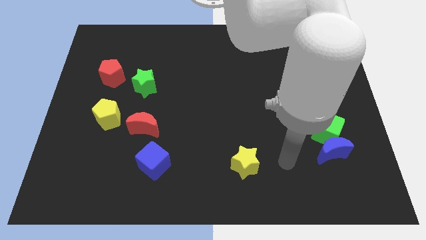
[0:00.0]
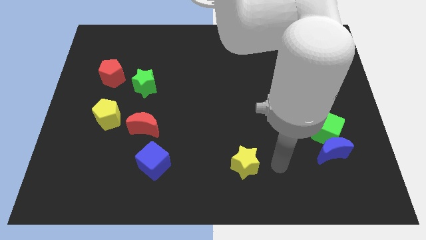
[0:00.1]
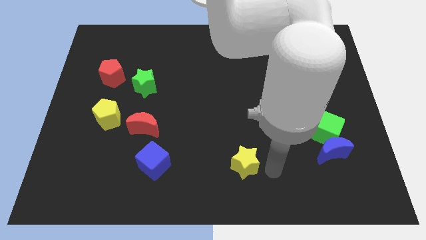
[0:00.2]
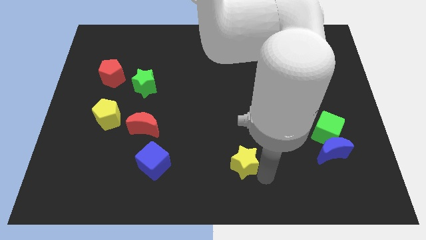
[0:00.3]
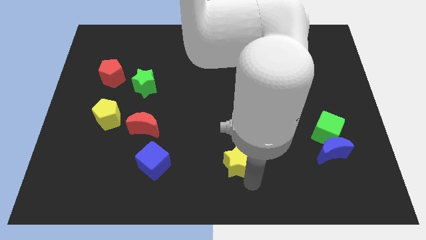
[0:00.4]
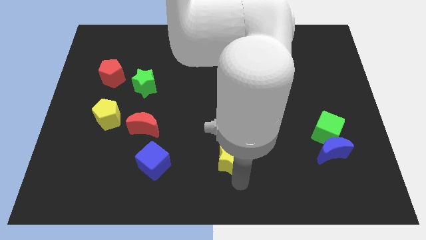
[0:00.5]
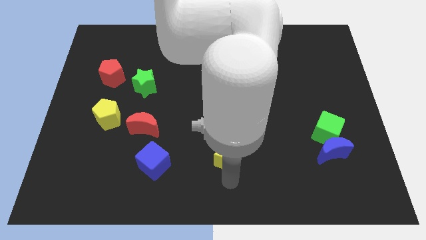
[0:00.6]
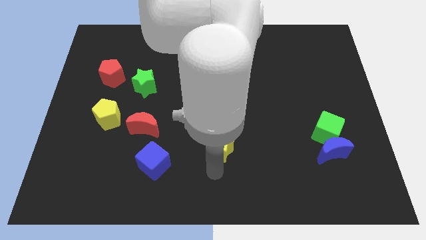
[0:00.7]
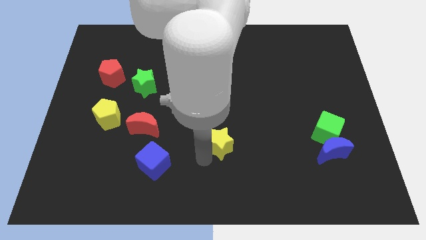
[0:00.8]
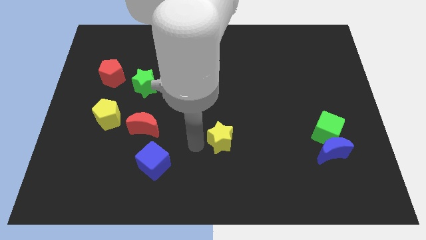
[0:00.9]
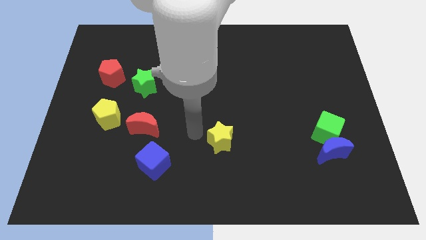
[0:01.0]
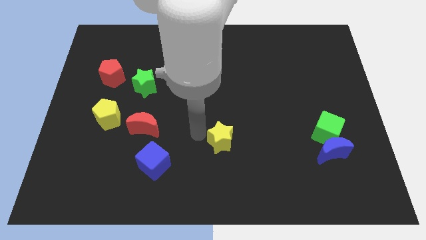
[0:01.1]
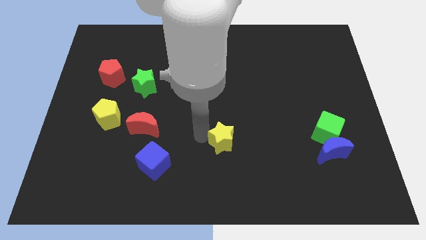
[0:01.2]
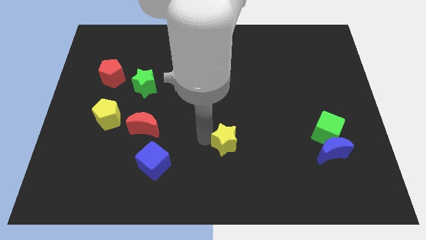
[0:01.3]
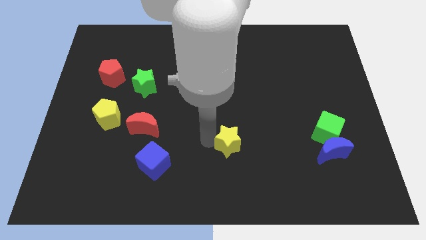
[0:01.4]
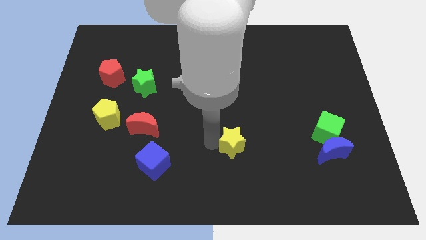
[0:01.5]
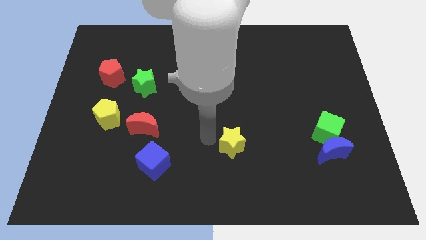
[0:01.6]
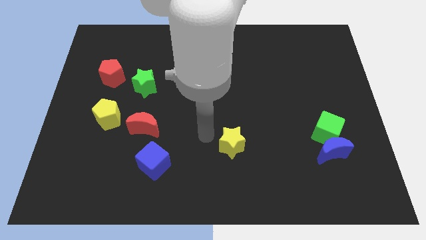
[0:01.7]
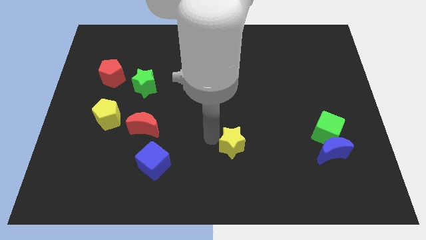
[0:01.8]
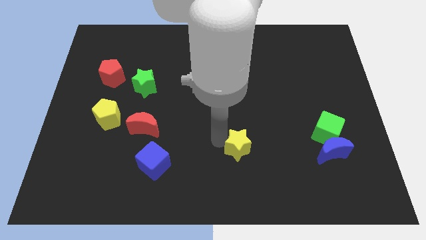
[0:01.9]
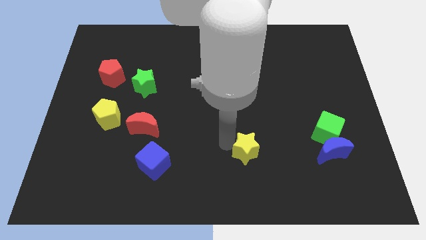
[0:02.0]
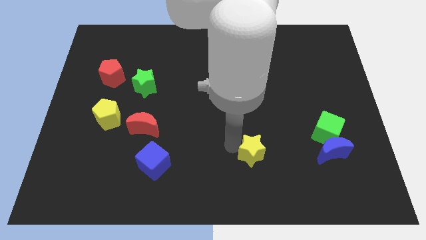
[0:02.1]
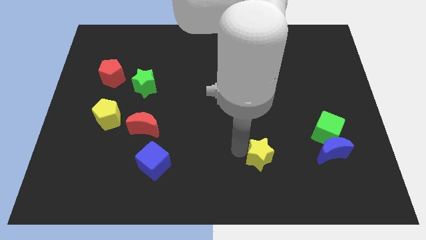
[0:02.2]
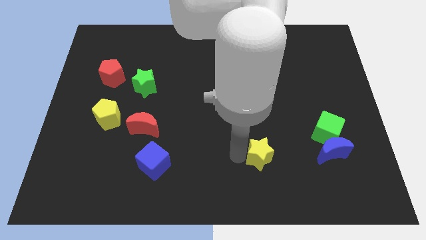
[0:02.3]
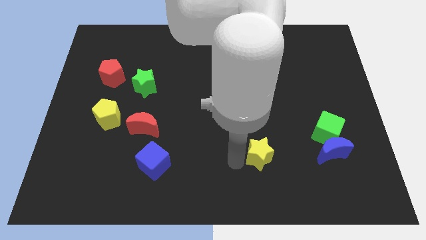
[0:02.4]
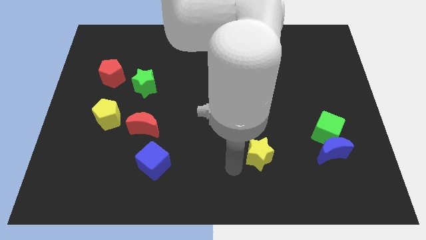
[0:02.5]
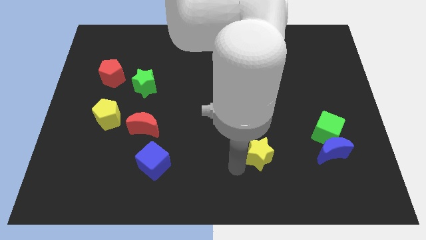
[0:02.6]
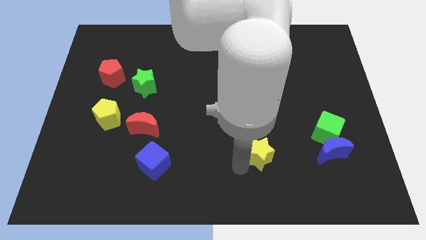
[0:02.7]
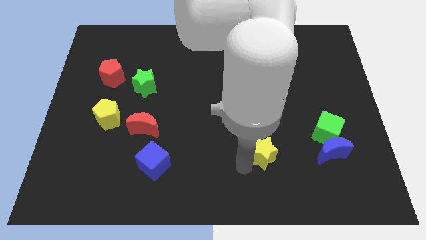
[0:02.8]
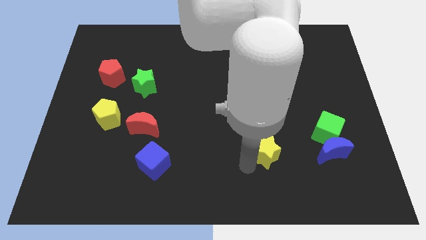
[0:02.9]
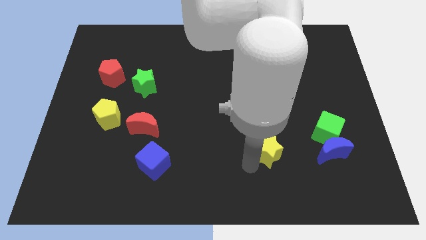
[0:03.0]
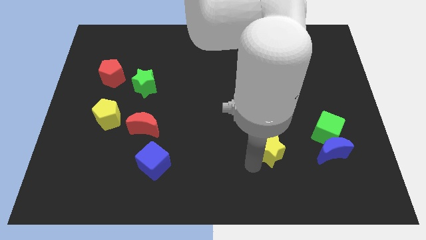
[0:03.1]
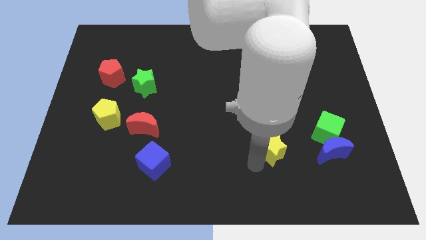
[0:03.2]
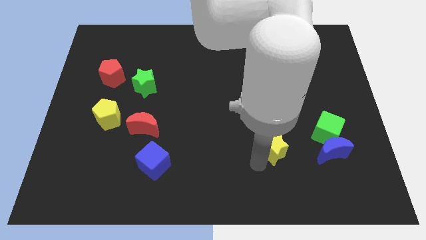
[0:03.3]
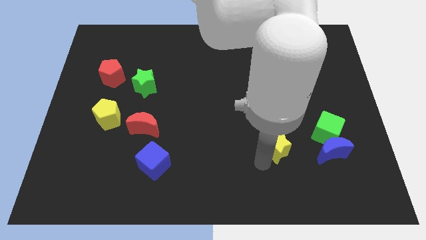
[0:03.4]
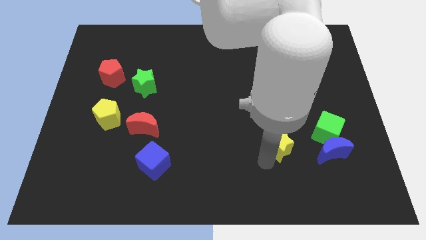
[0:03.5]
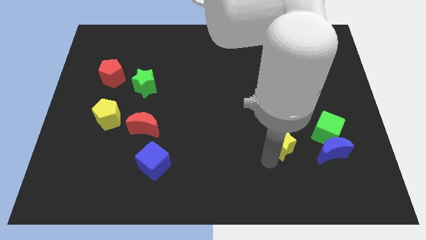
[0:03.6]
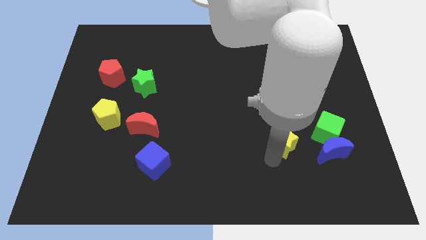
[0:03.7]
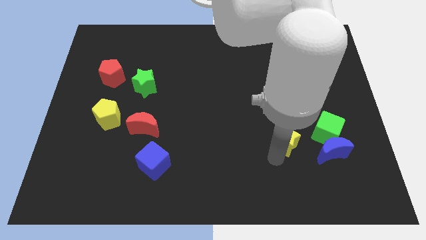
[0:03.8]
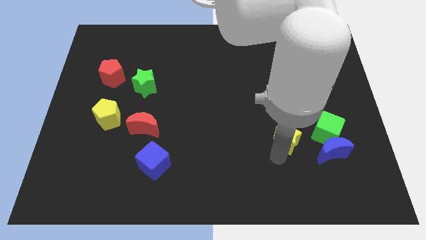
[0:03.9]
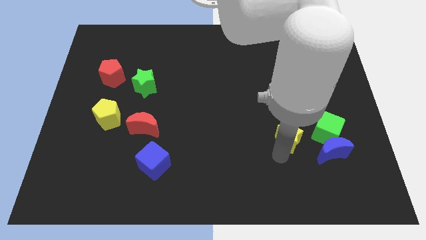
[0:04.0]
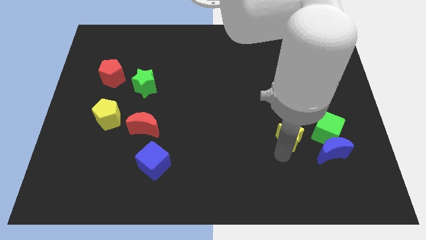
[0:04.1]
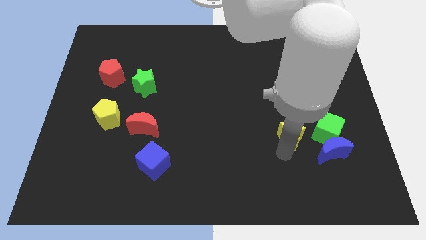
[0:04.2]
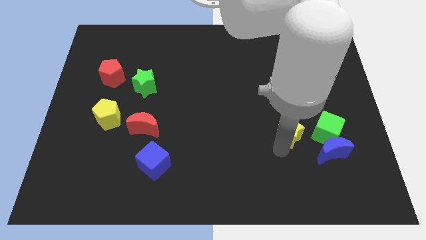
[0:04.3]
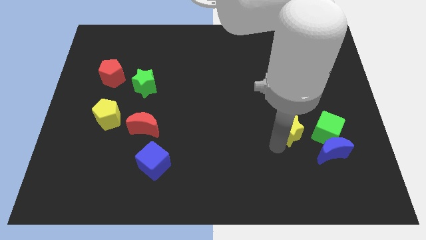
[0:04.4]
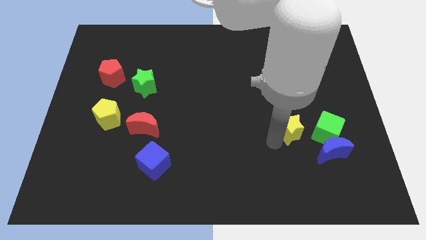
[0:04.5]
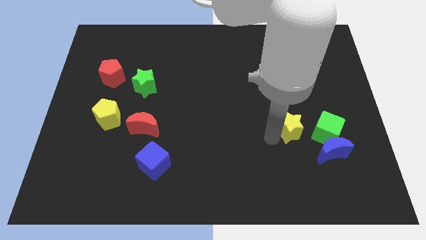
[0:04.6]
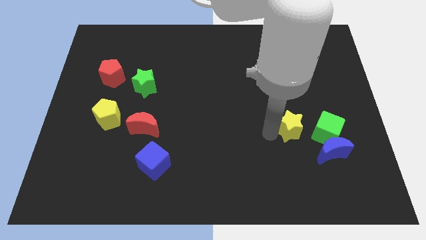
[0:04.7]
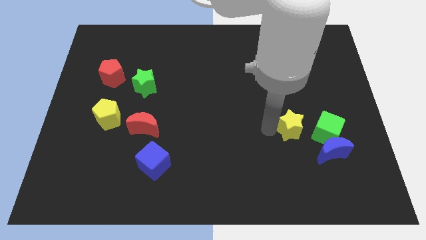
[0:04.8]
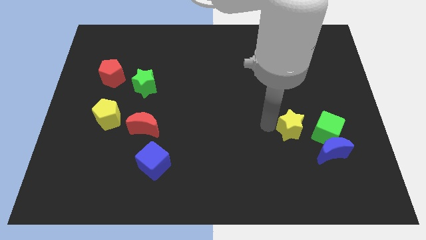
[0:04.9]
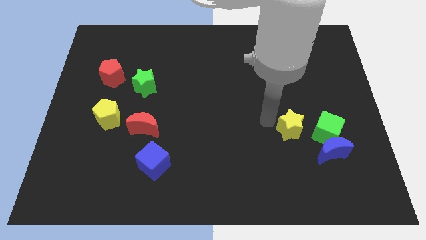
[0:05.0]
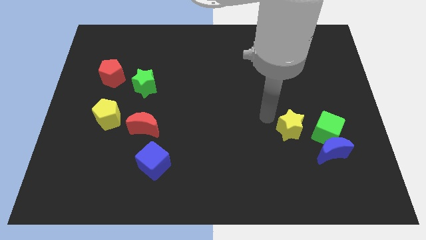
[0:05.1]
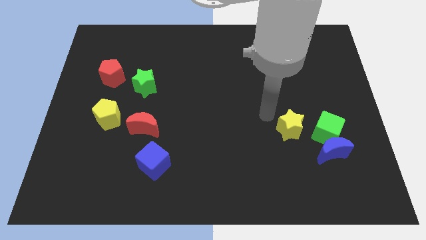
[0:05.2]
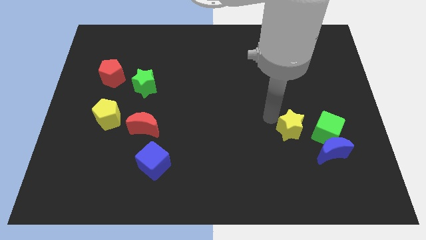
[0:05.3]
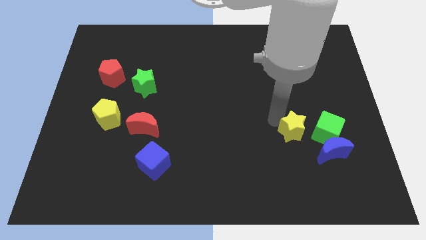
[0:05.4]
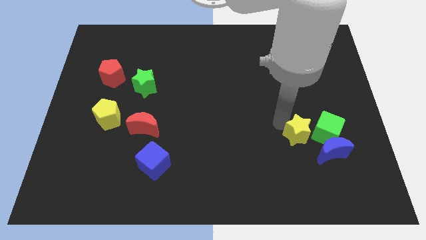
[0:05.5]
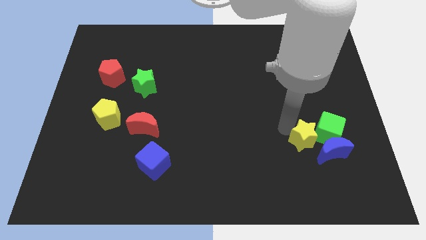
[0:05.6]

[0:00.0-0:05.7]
slide the yellow star next to the green cube

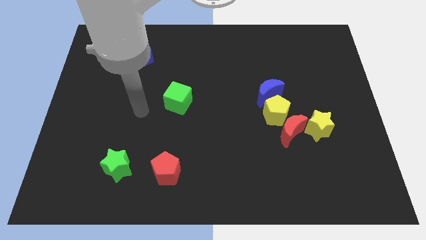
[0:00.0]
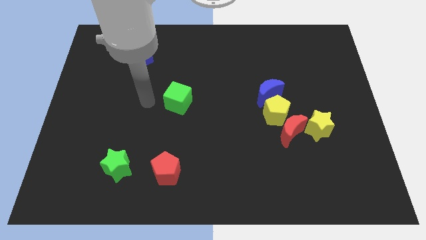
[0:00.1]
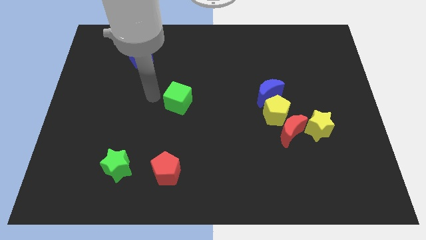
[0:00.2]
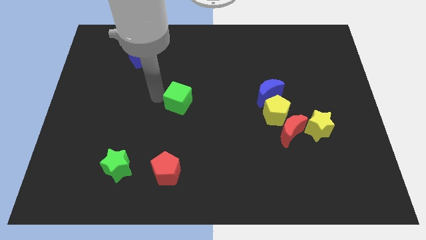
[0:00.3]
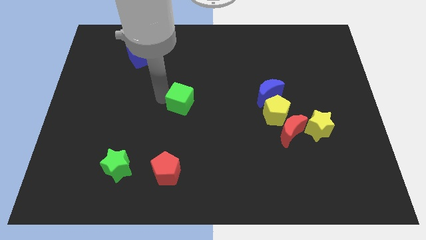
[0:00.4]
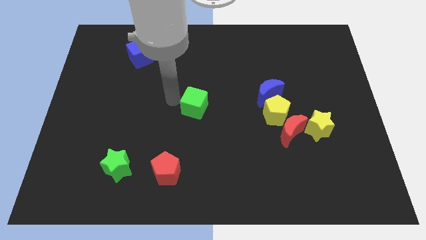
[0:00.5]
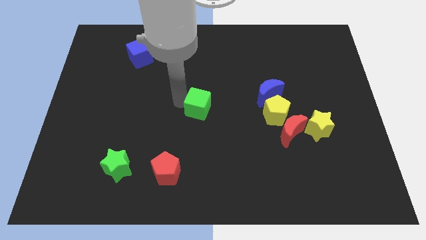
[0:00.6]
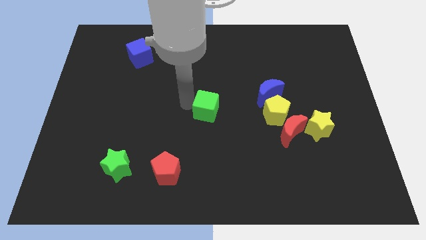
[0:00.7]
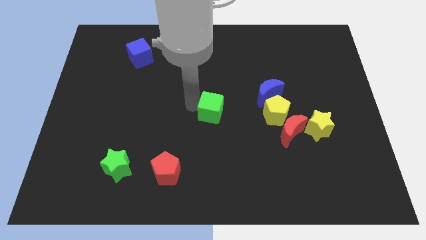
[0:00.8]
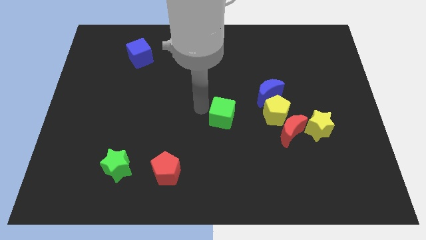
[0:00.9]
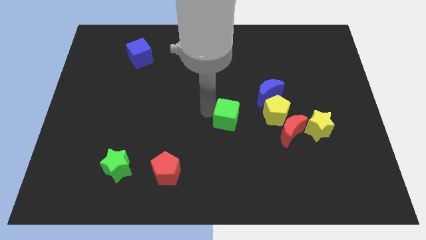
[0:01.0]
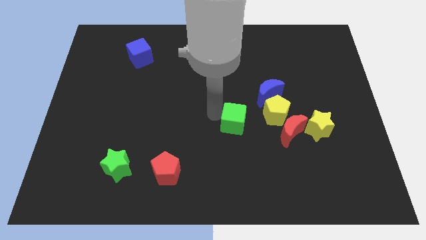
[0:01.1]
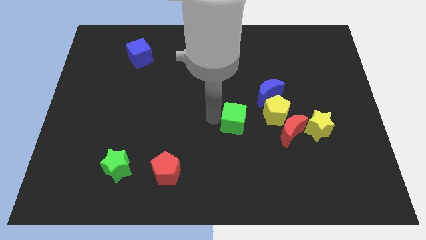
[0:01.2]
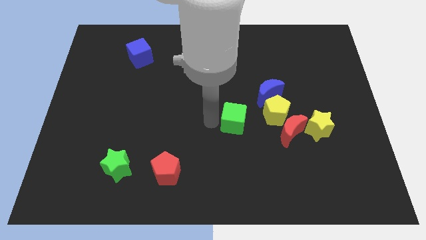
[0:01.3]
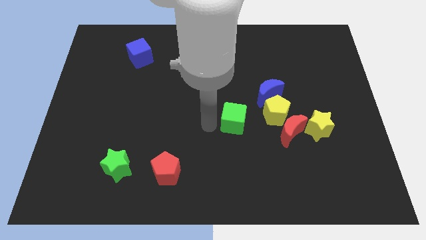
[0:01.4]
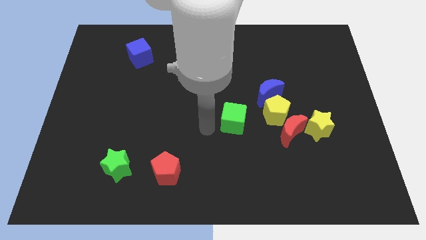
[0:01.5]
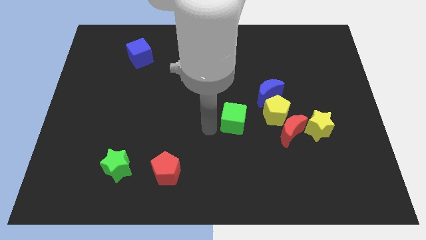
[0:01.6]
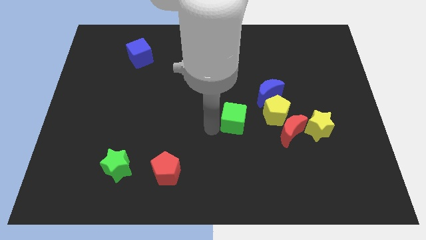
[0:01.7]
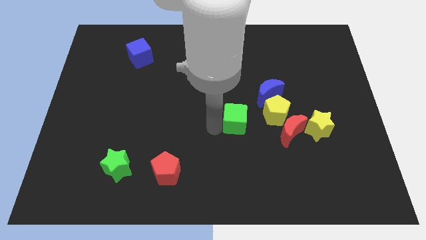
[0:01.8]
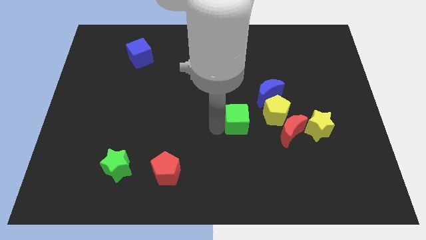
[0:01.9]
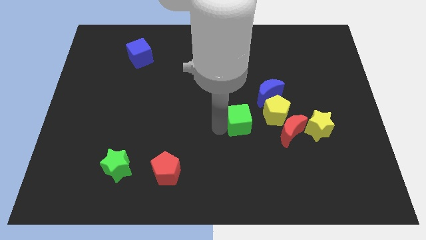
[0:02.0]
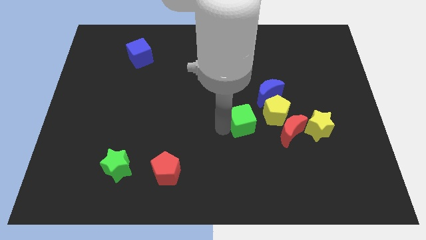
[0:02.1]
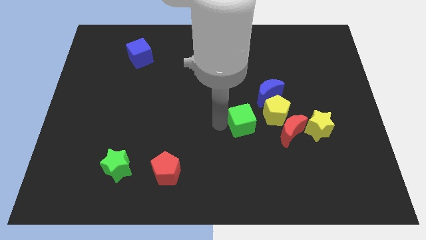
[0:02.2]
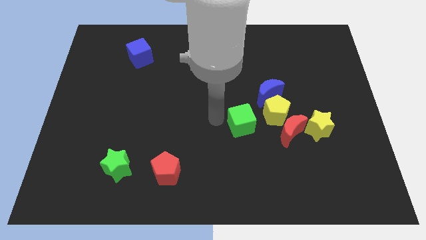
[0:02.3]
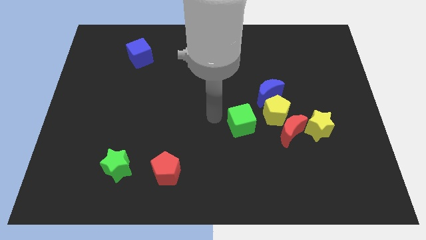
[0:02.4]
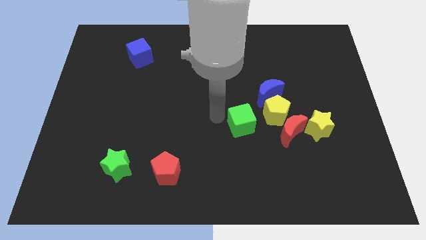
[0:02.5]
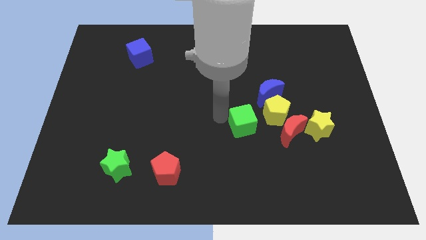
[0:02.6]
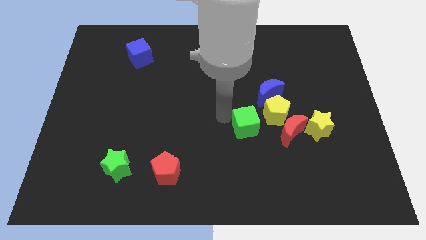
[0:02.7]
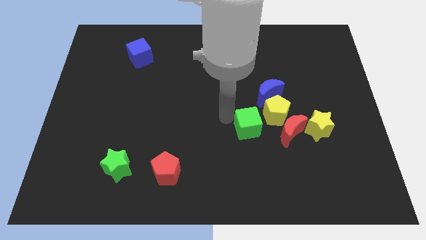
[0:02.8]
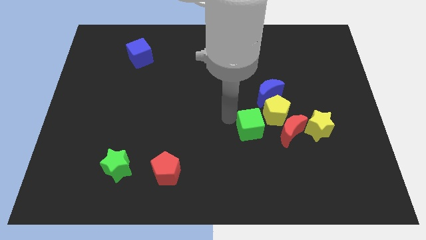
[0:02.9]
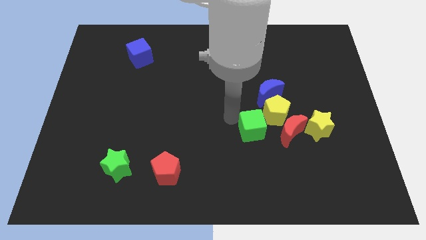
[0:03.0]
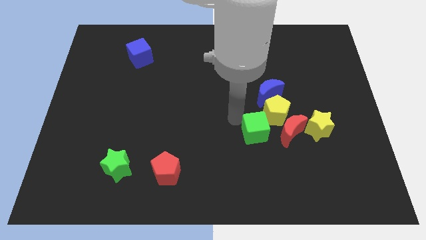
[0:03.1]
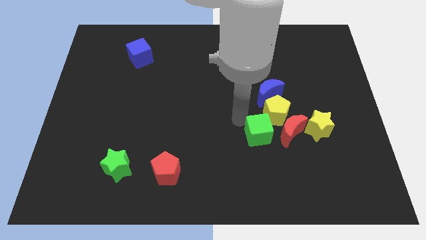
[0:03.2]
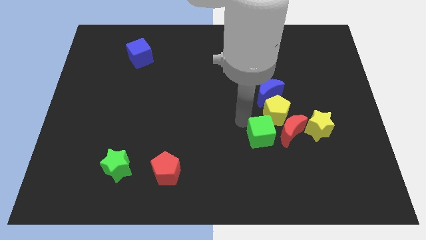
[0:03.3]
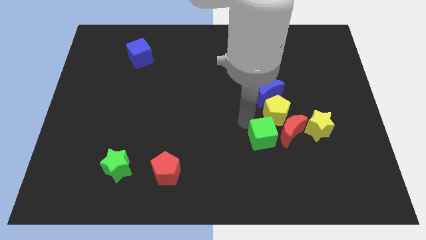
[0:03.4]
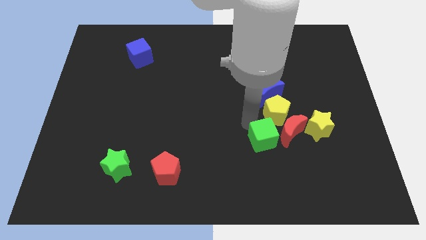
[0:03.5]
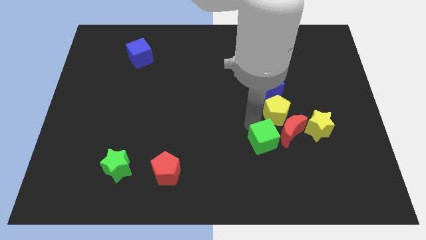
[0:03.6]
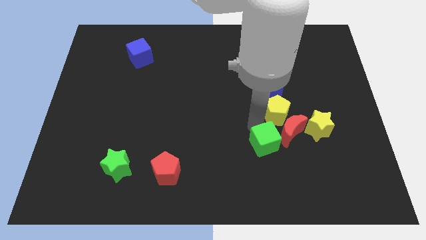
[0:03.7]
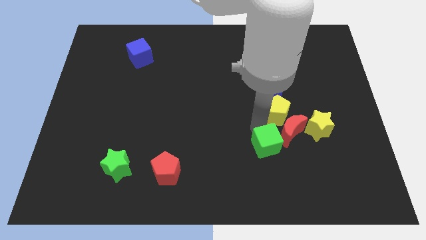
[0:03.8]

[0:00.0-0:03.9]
push the green cube towards the red moon
